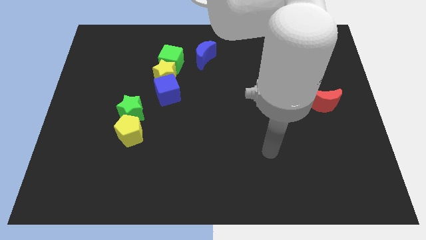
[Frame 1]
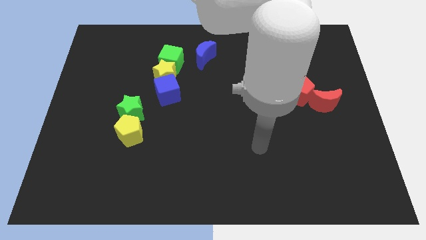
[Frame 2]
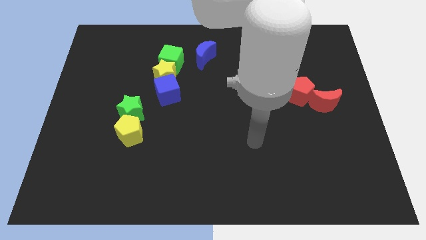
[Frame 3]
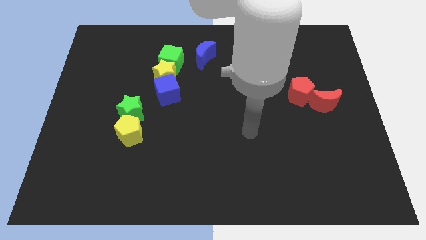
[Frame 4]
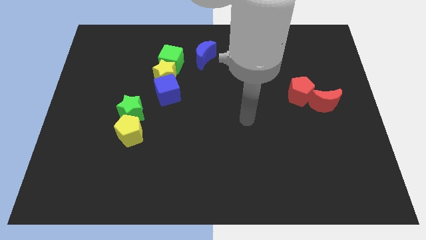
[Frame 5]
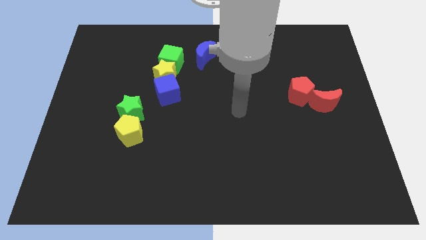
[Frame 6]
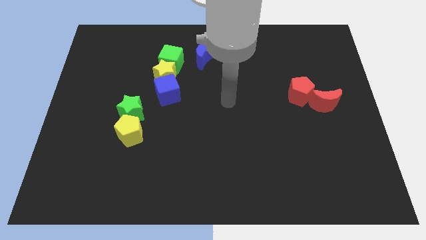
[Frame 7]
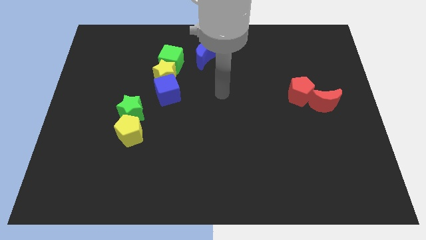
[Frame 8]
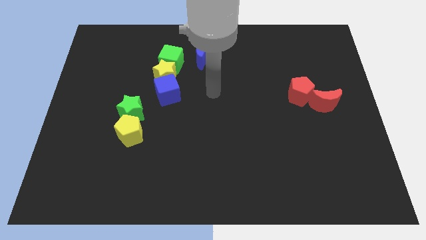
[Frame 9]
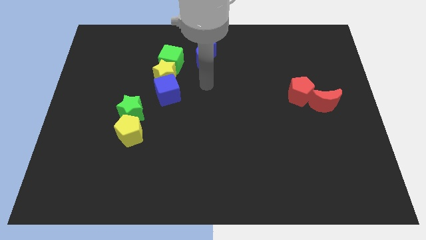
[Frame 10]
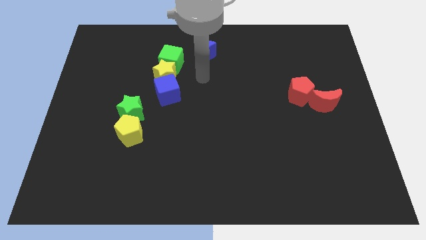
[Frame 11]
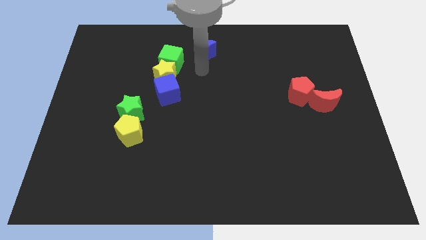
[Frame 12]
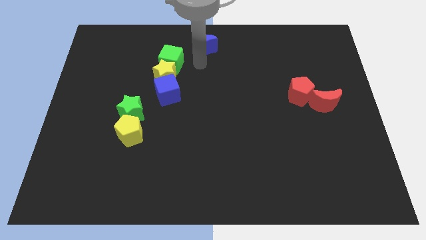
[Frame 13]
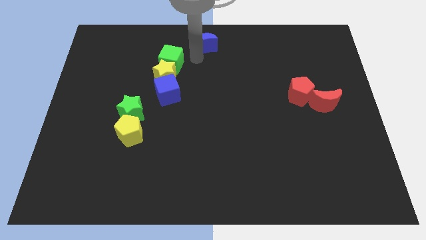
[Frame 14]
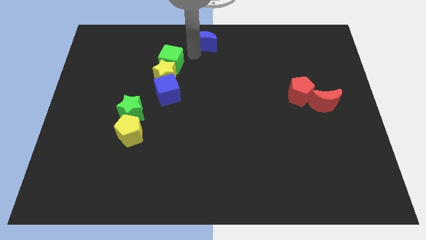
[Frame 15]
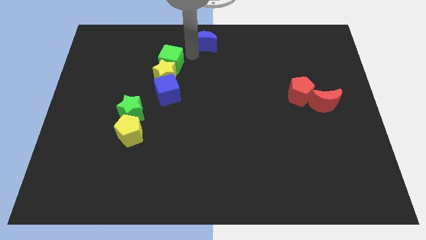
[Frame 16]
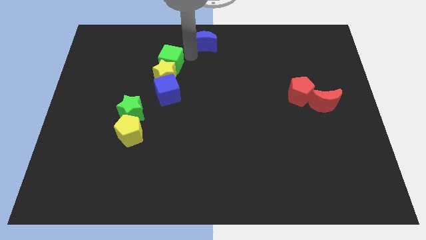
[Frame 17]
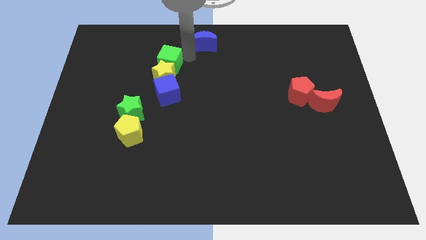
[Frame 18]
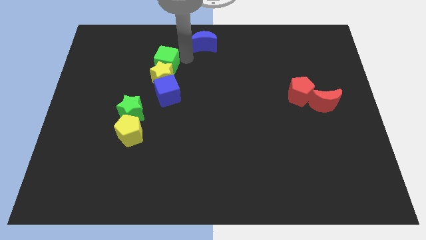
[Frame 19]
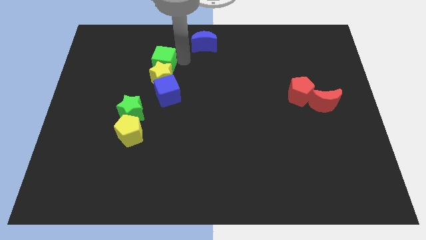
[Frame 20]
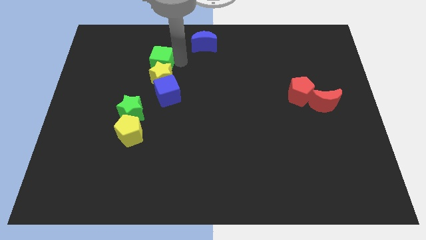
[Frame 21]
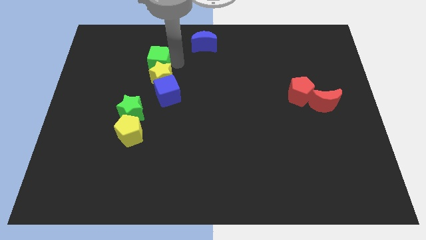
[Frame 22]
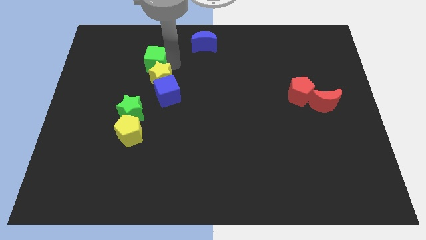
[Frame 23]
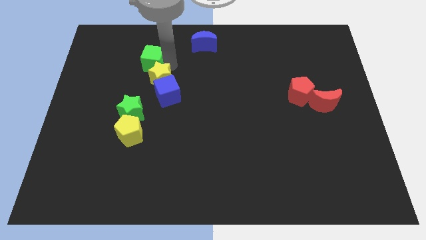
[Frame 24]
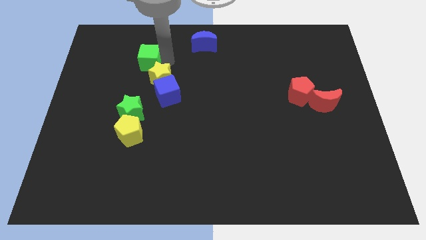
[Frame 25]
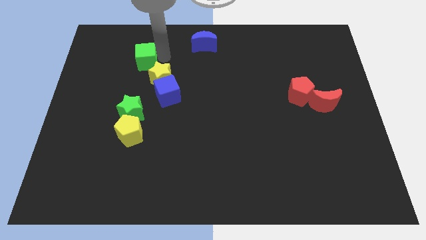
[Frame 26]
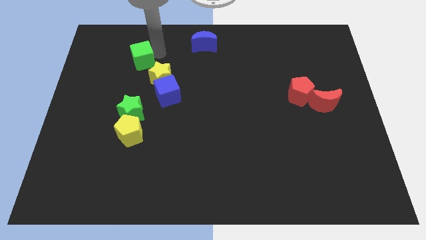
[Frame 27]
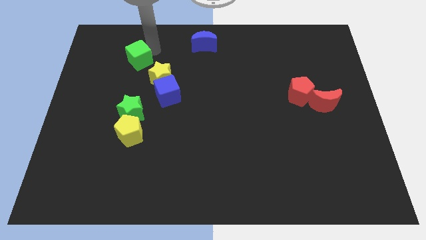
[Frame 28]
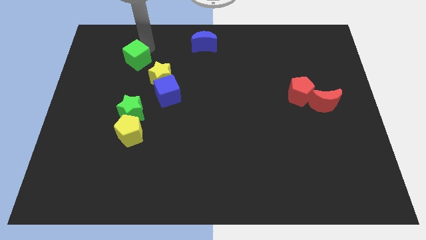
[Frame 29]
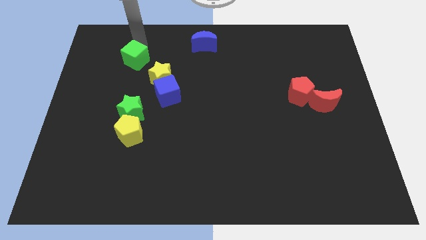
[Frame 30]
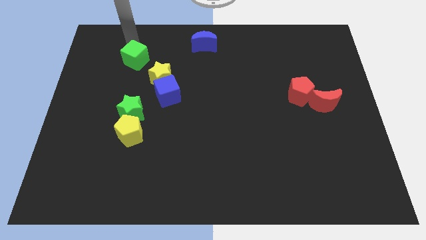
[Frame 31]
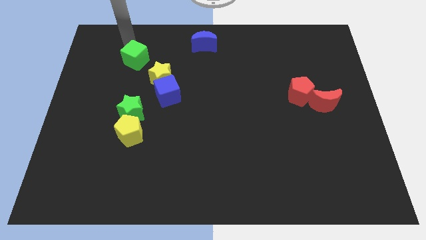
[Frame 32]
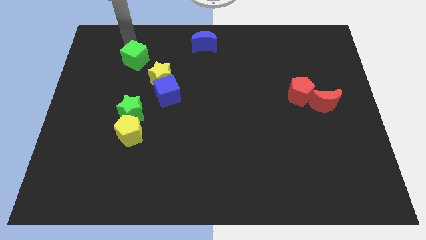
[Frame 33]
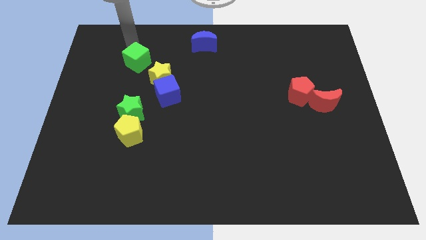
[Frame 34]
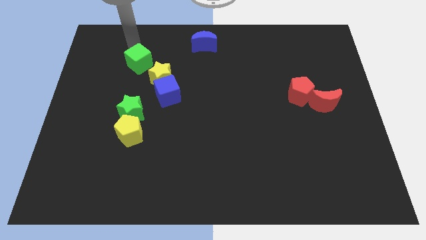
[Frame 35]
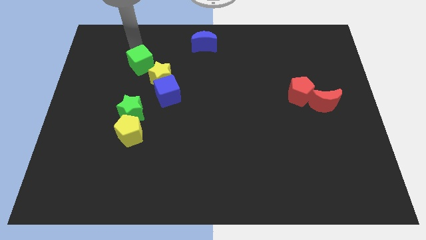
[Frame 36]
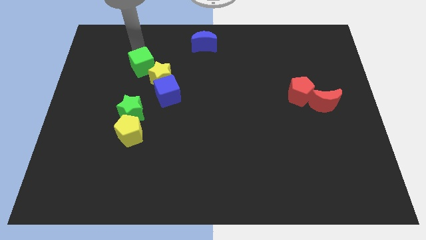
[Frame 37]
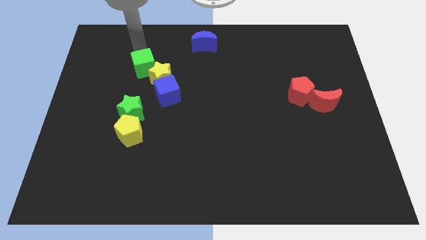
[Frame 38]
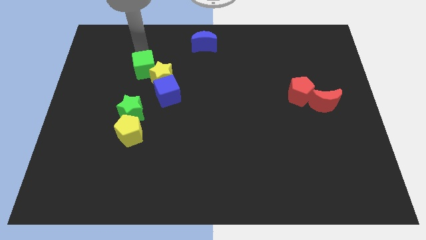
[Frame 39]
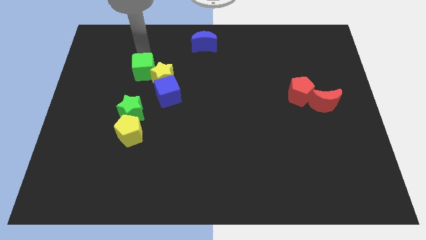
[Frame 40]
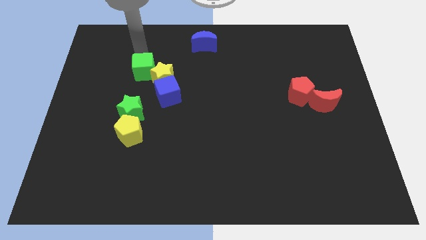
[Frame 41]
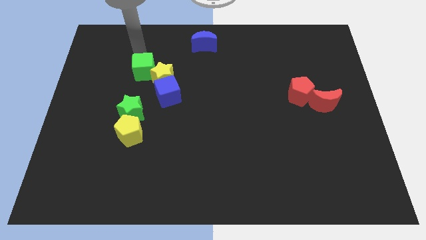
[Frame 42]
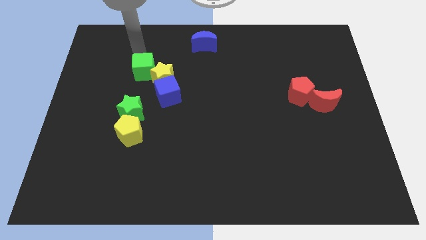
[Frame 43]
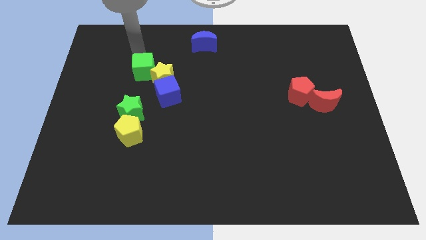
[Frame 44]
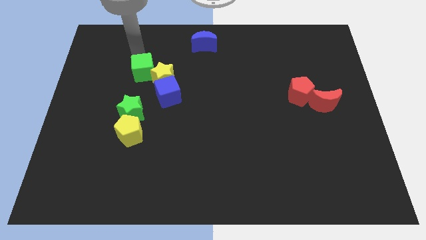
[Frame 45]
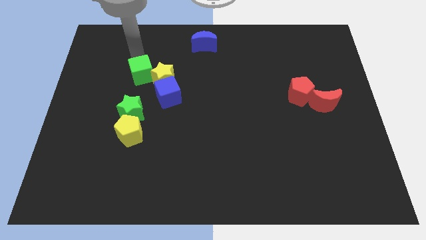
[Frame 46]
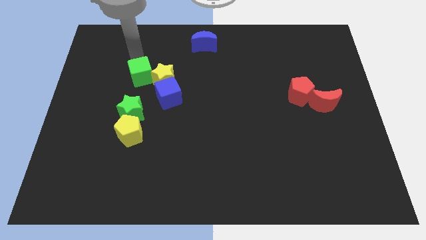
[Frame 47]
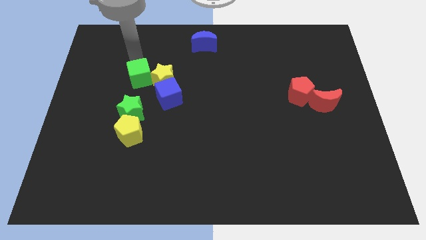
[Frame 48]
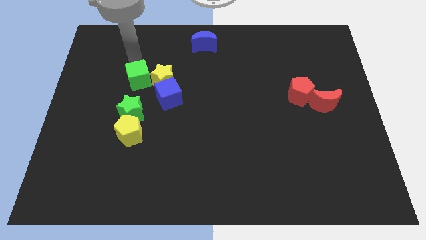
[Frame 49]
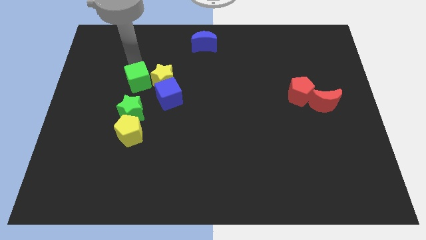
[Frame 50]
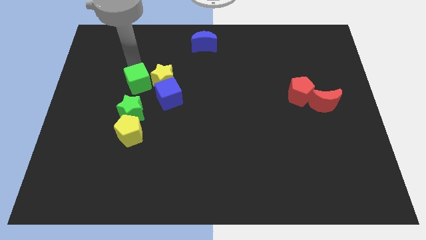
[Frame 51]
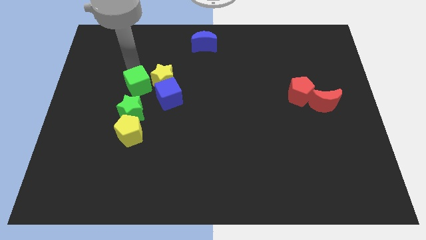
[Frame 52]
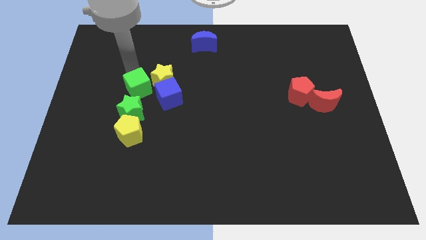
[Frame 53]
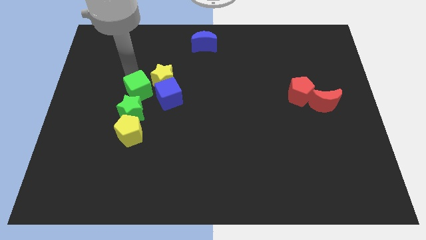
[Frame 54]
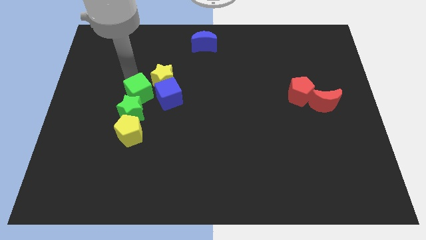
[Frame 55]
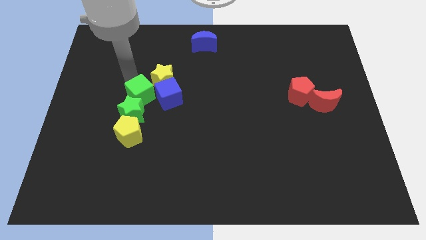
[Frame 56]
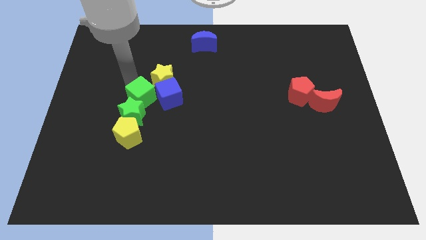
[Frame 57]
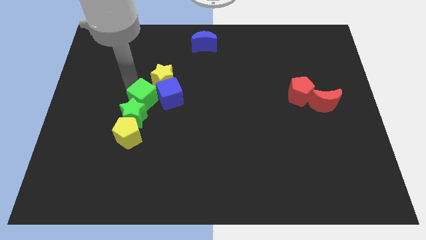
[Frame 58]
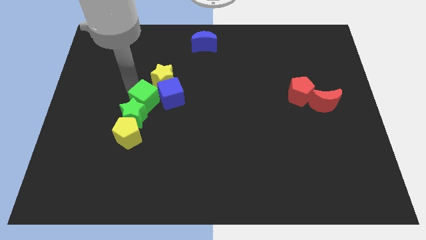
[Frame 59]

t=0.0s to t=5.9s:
move the green cube to the blue cube

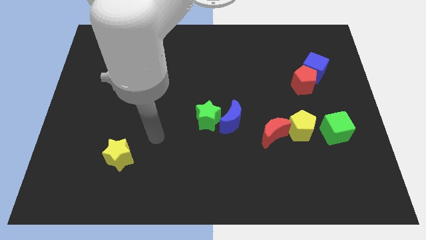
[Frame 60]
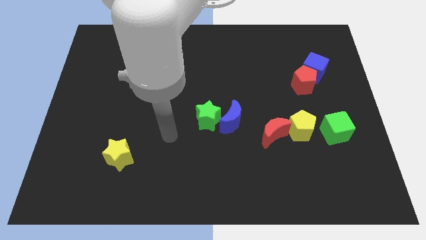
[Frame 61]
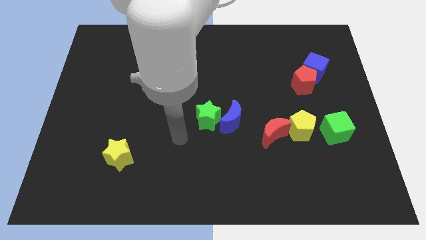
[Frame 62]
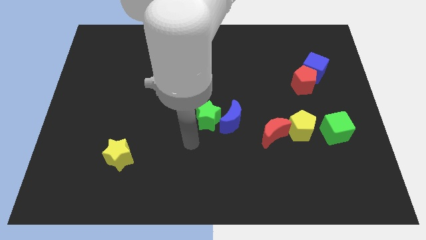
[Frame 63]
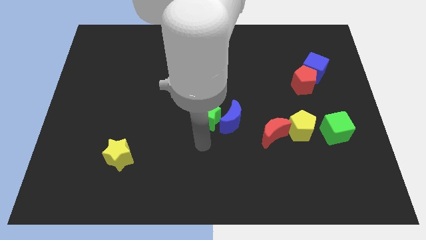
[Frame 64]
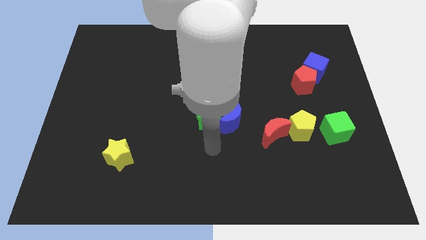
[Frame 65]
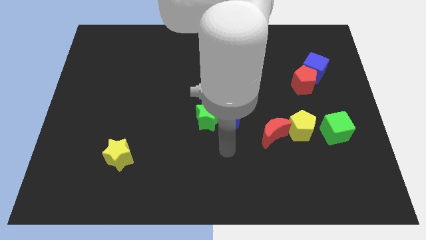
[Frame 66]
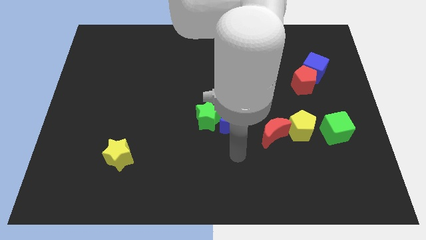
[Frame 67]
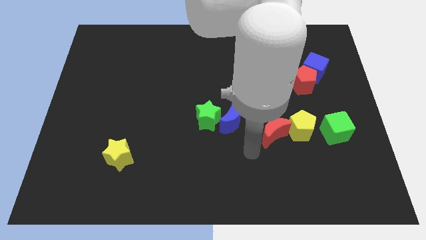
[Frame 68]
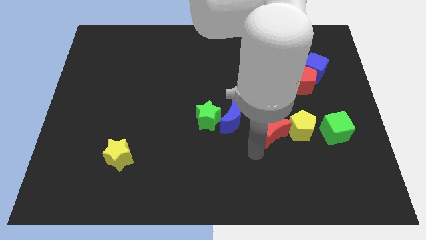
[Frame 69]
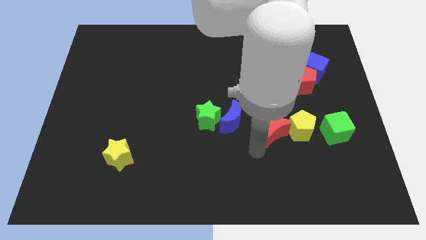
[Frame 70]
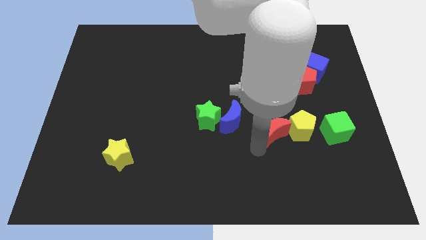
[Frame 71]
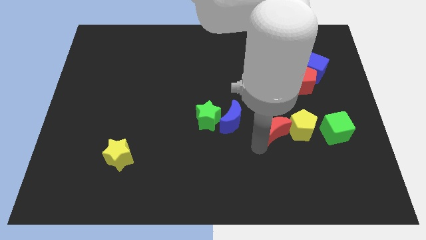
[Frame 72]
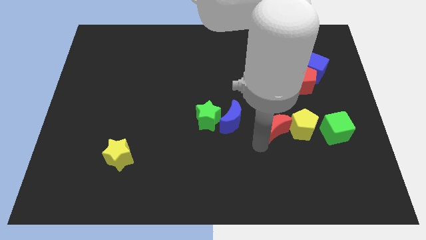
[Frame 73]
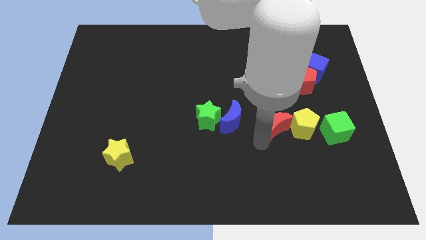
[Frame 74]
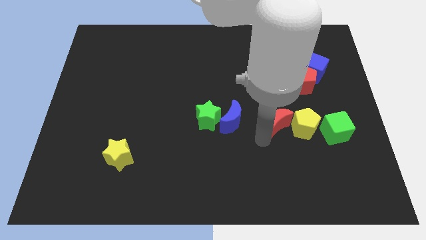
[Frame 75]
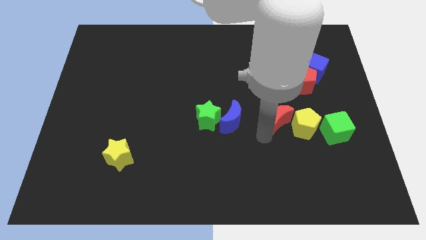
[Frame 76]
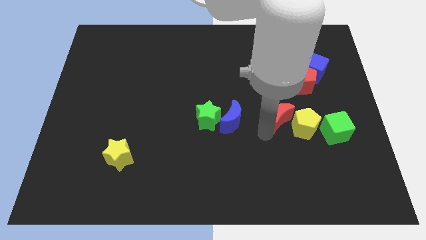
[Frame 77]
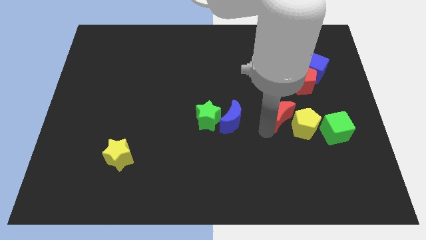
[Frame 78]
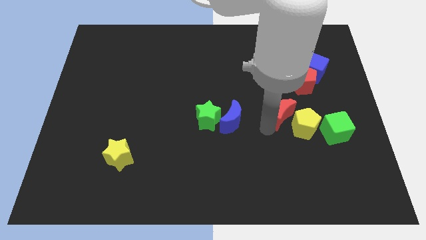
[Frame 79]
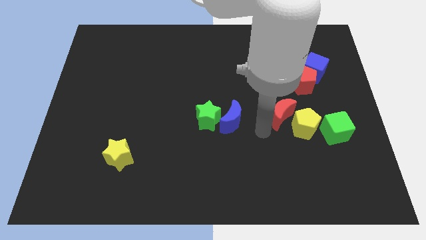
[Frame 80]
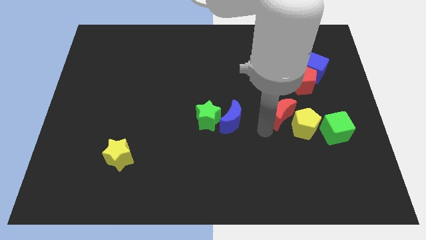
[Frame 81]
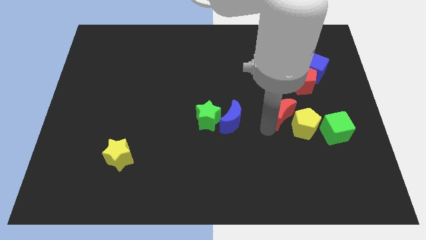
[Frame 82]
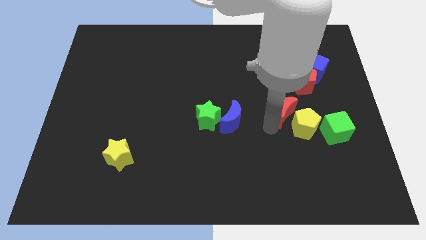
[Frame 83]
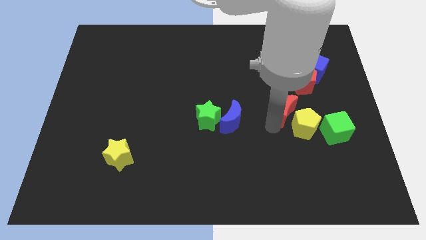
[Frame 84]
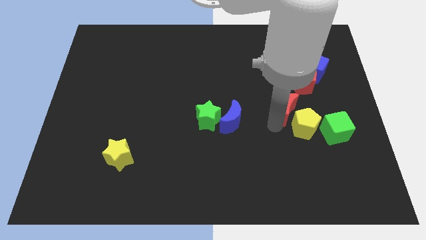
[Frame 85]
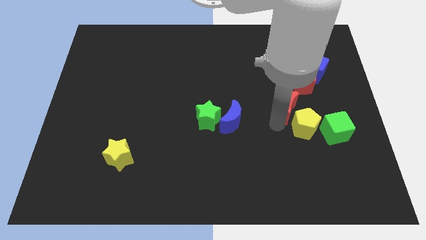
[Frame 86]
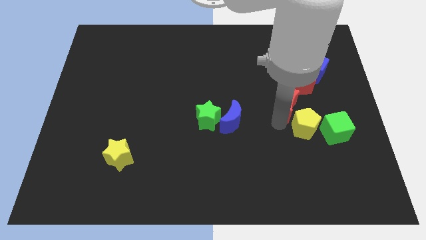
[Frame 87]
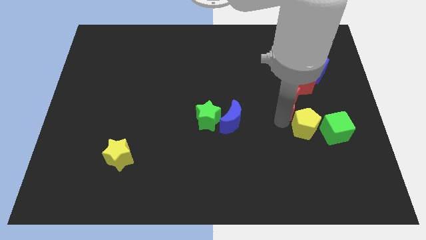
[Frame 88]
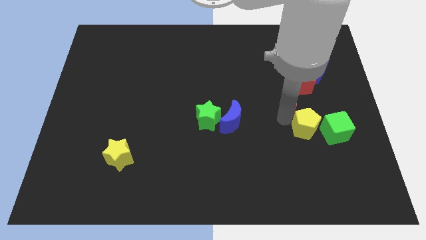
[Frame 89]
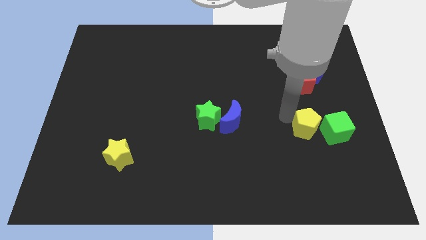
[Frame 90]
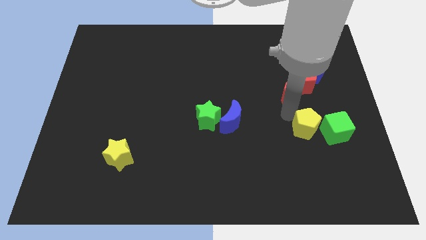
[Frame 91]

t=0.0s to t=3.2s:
put the red moon to the red pentagon
